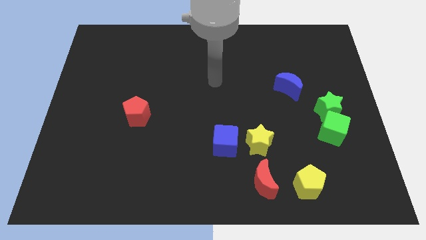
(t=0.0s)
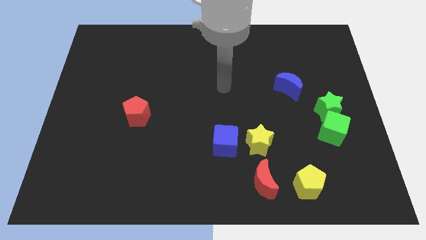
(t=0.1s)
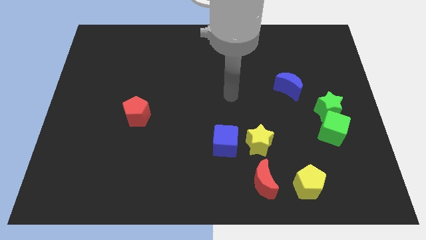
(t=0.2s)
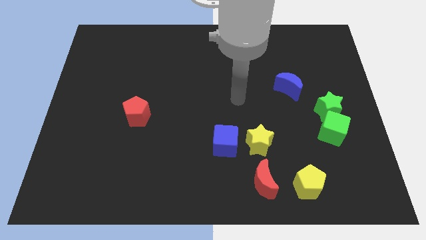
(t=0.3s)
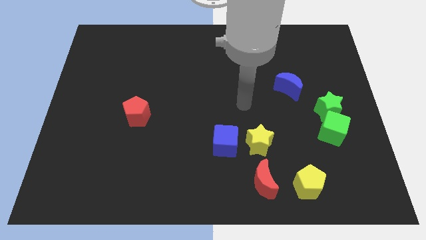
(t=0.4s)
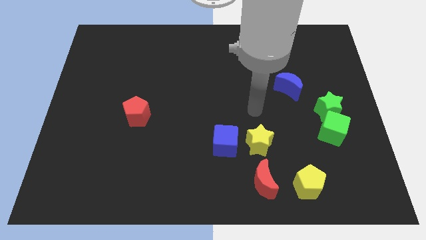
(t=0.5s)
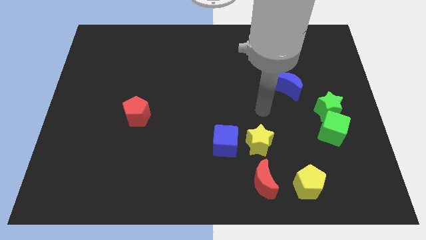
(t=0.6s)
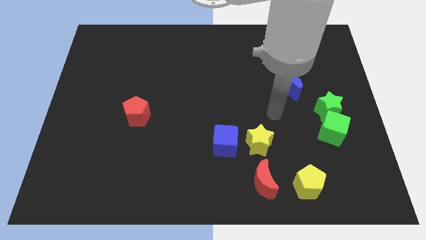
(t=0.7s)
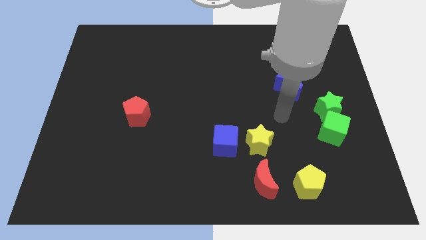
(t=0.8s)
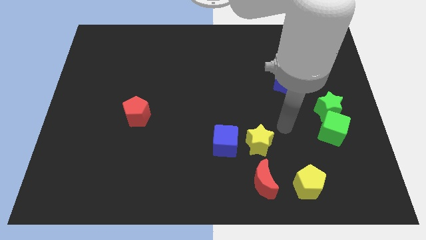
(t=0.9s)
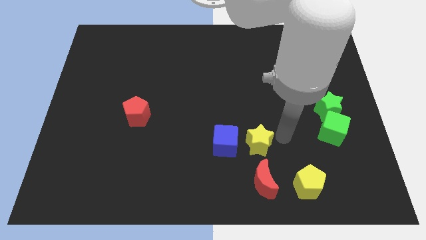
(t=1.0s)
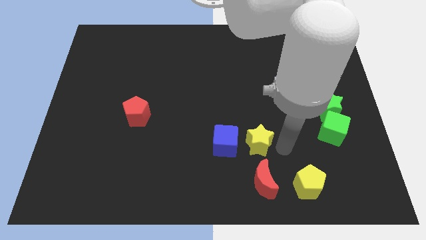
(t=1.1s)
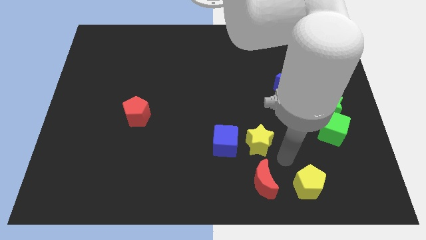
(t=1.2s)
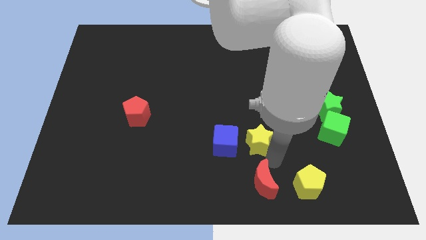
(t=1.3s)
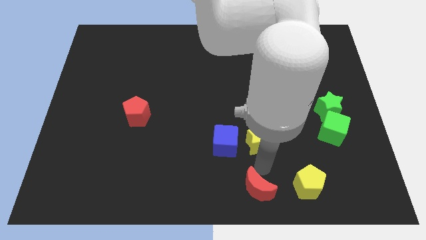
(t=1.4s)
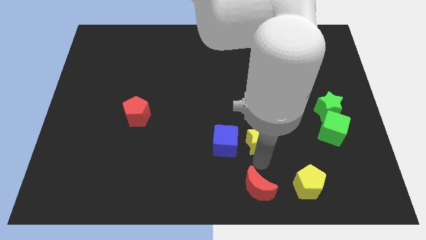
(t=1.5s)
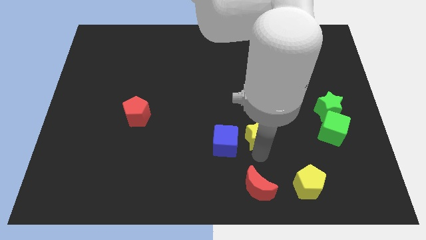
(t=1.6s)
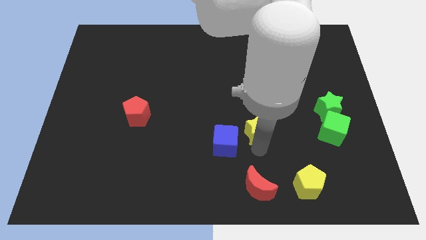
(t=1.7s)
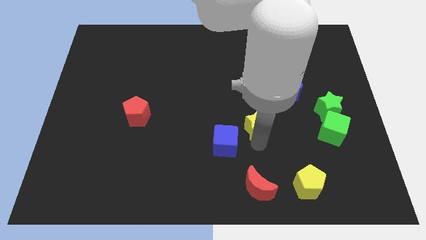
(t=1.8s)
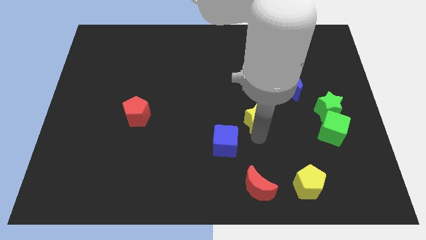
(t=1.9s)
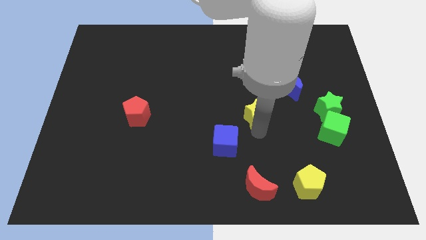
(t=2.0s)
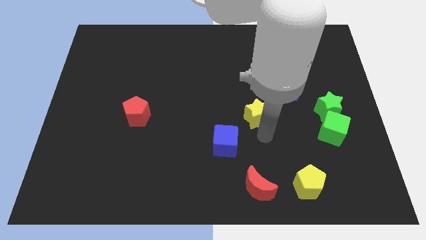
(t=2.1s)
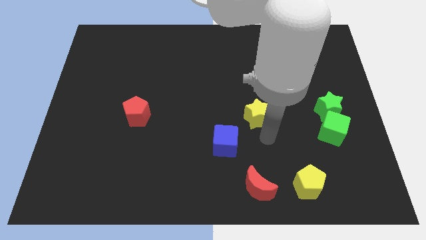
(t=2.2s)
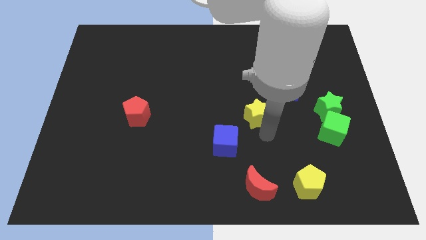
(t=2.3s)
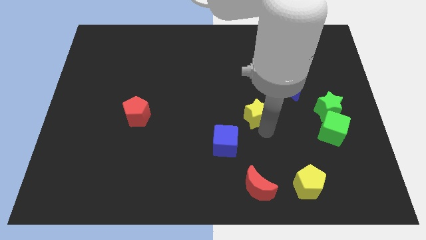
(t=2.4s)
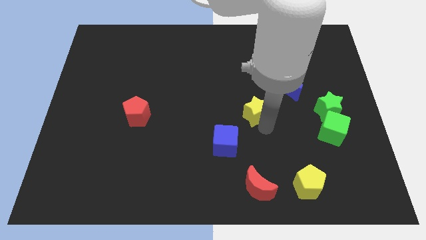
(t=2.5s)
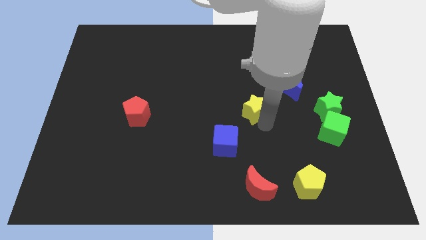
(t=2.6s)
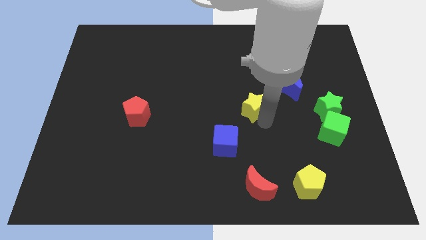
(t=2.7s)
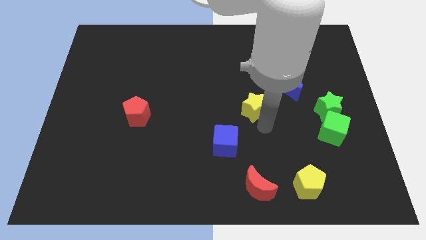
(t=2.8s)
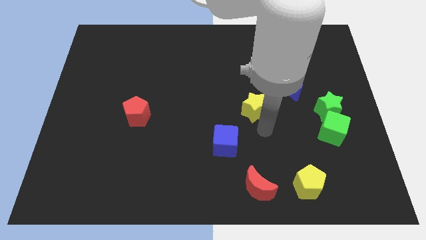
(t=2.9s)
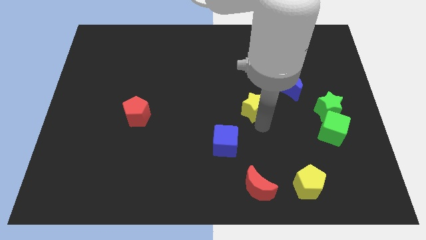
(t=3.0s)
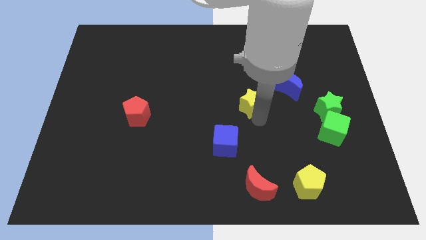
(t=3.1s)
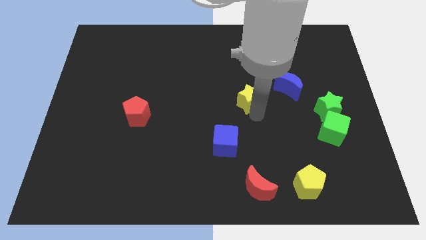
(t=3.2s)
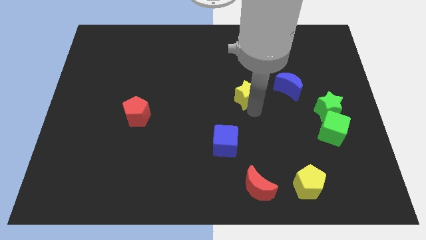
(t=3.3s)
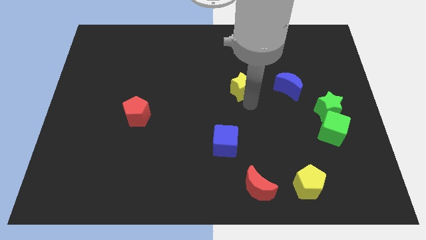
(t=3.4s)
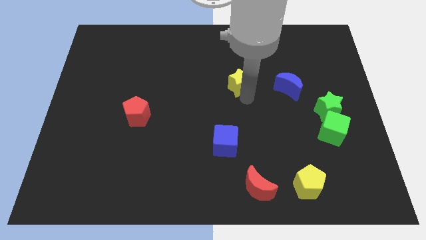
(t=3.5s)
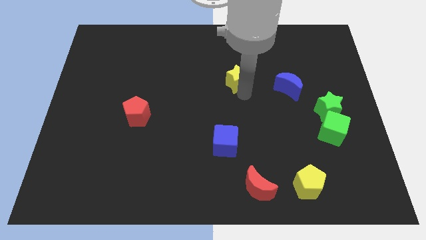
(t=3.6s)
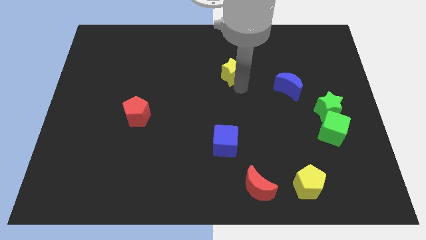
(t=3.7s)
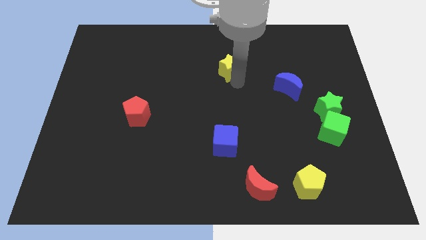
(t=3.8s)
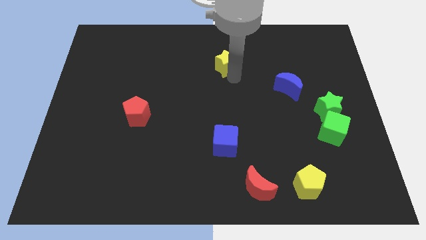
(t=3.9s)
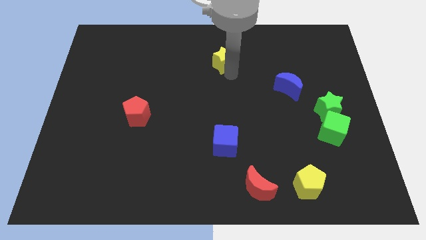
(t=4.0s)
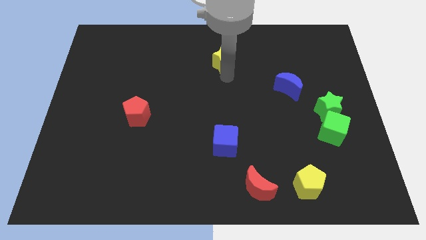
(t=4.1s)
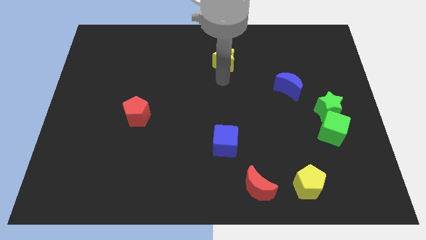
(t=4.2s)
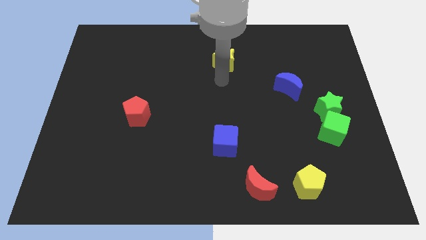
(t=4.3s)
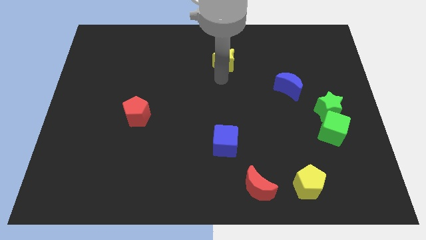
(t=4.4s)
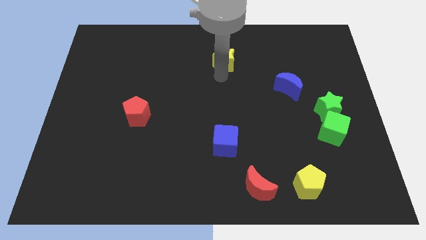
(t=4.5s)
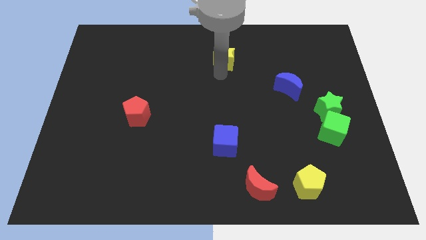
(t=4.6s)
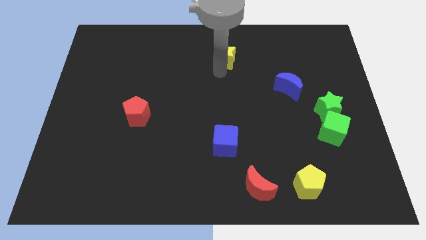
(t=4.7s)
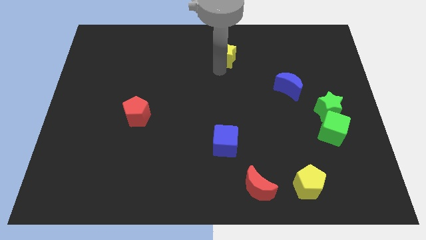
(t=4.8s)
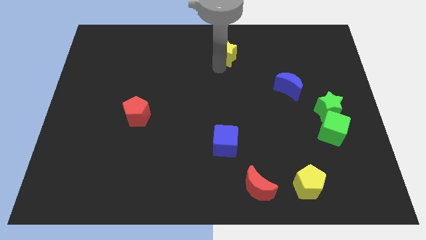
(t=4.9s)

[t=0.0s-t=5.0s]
push the yellow star to the top

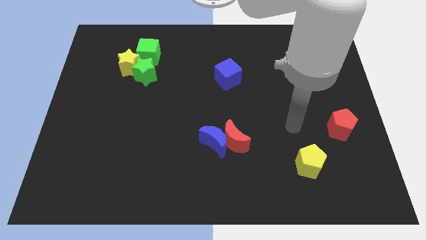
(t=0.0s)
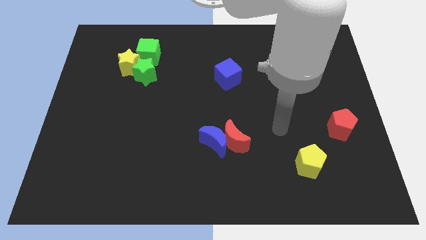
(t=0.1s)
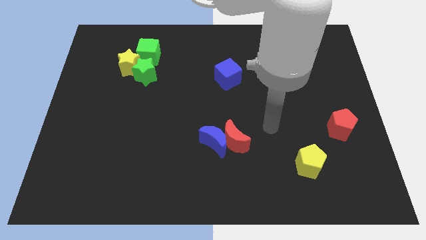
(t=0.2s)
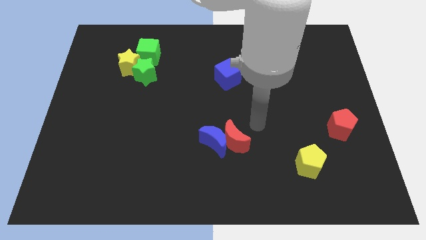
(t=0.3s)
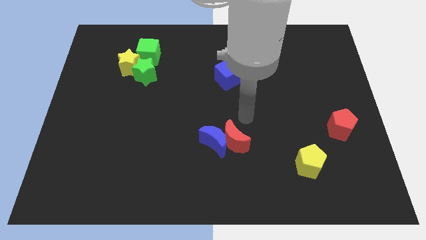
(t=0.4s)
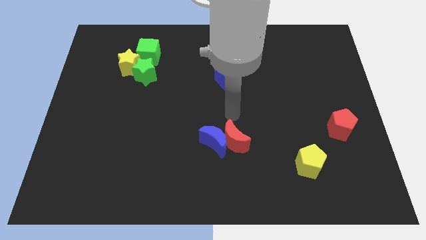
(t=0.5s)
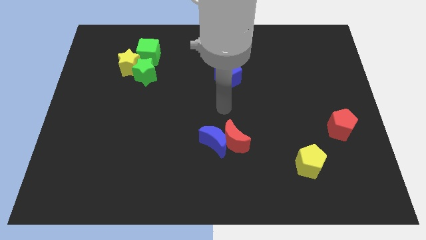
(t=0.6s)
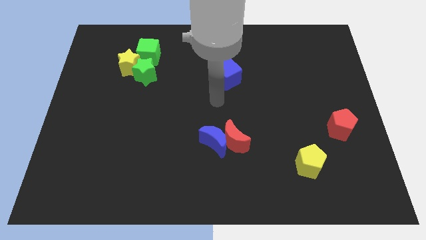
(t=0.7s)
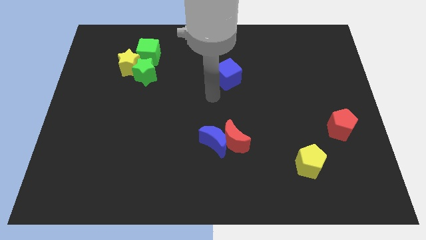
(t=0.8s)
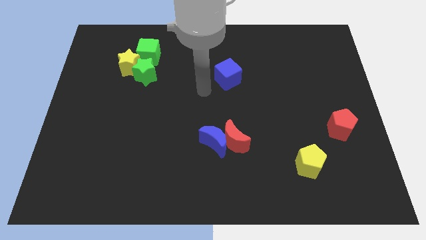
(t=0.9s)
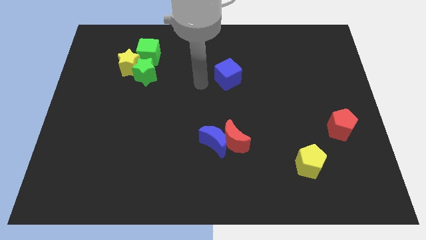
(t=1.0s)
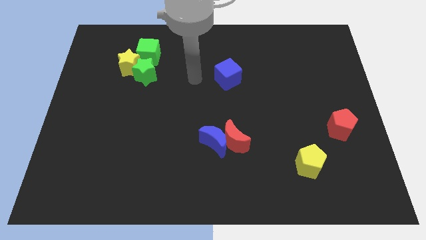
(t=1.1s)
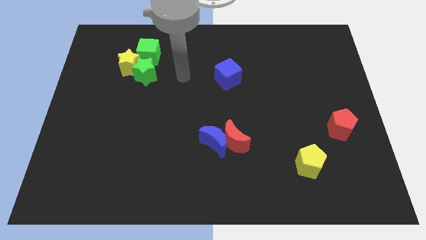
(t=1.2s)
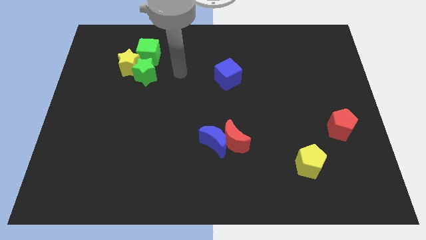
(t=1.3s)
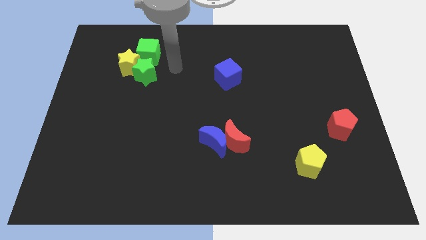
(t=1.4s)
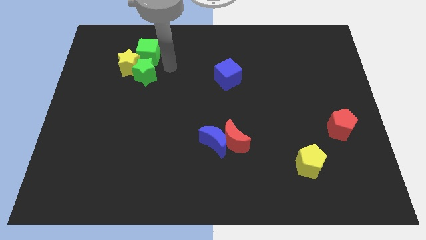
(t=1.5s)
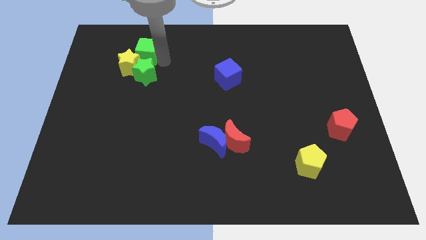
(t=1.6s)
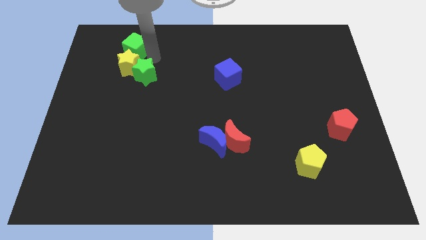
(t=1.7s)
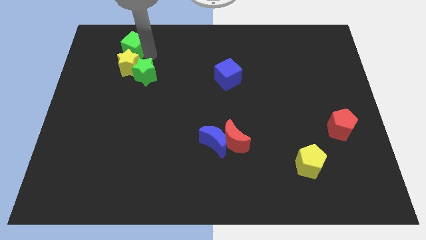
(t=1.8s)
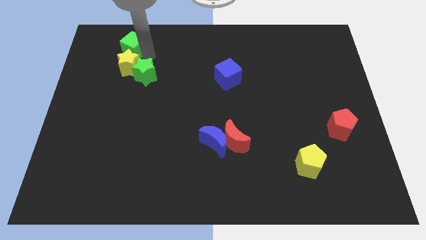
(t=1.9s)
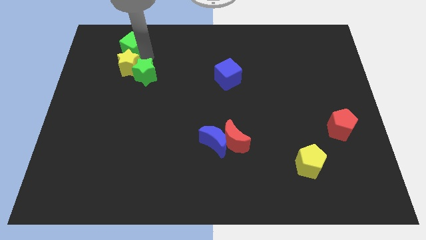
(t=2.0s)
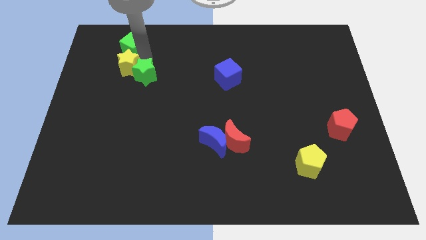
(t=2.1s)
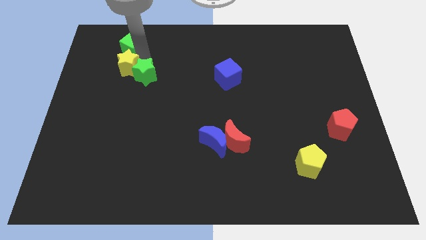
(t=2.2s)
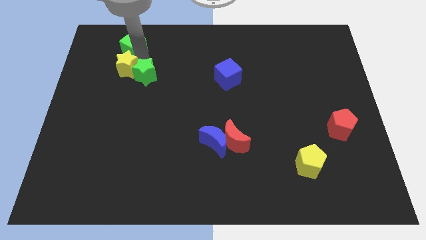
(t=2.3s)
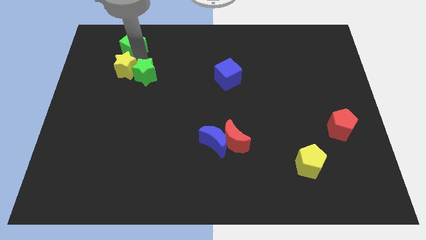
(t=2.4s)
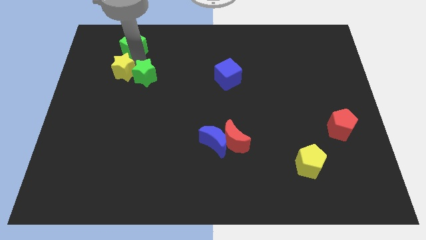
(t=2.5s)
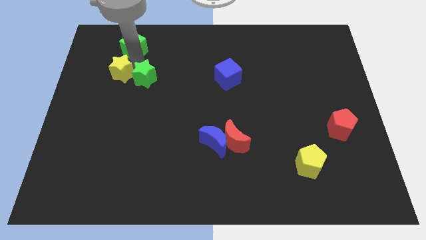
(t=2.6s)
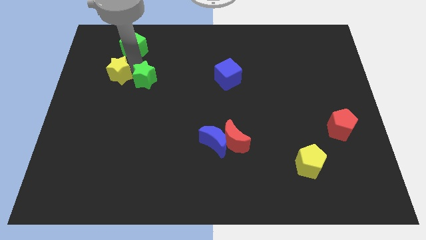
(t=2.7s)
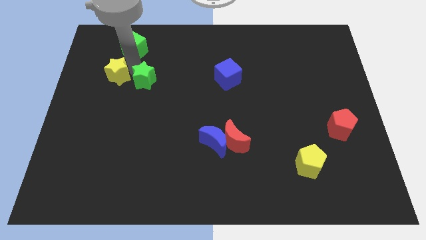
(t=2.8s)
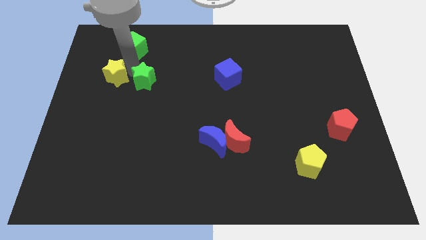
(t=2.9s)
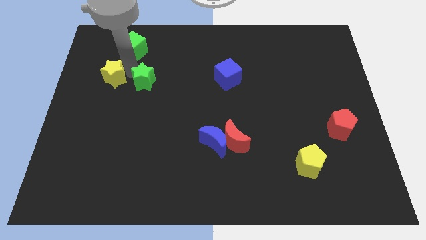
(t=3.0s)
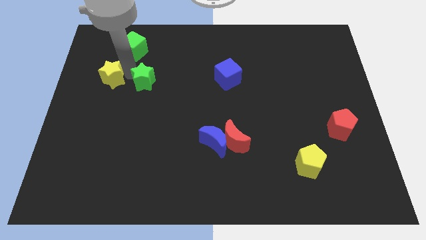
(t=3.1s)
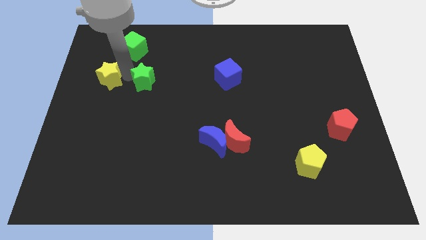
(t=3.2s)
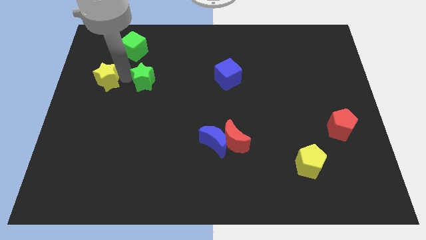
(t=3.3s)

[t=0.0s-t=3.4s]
push the yellow star to the left side
